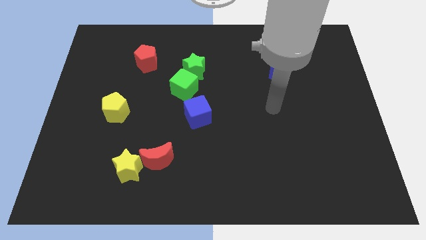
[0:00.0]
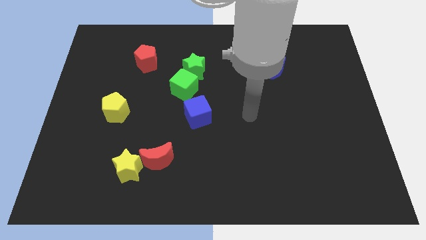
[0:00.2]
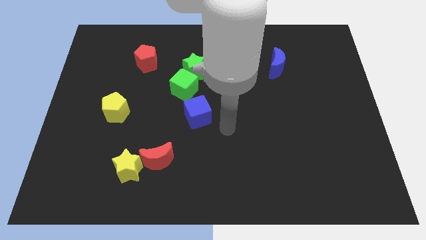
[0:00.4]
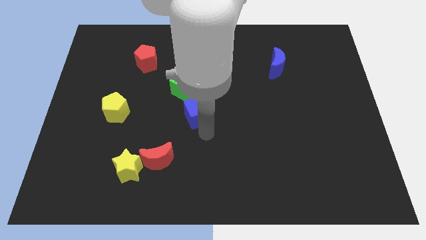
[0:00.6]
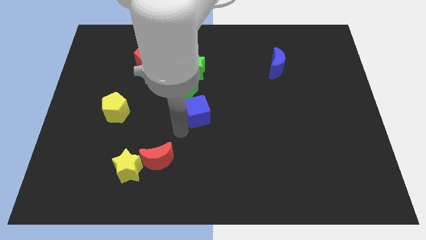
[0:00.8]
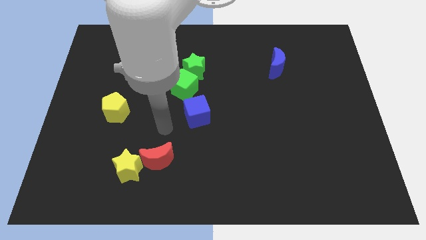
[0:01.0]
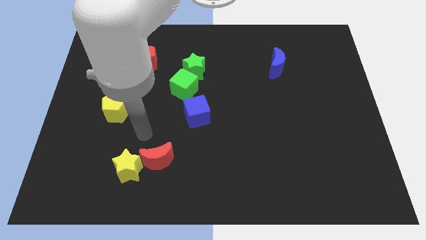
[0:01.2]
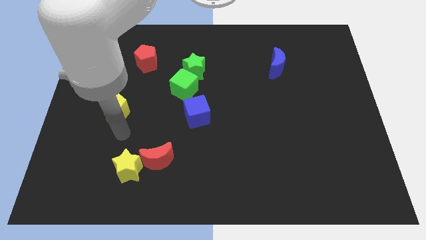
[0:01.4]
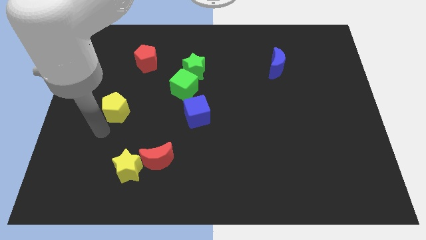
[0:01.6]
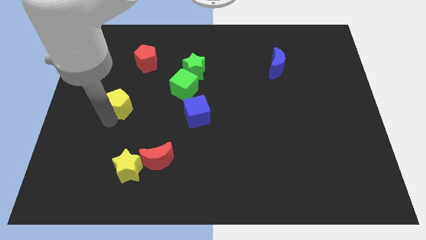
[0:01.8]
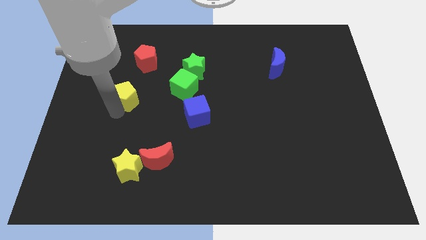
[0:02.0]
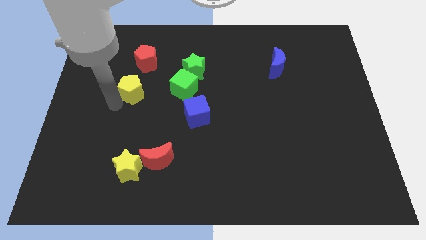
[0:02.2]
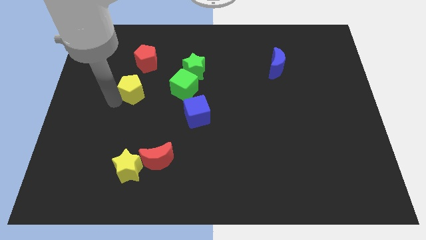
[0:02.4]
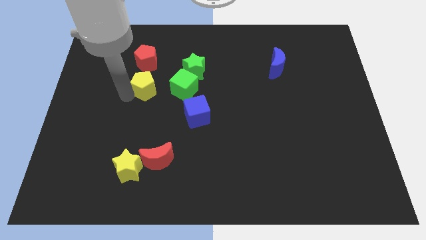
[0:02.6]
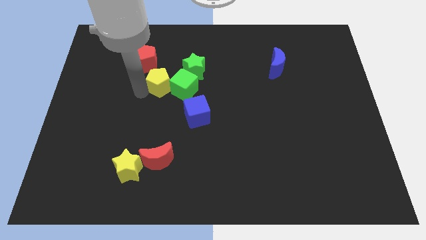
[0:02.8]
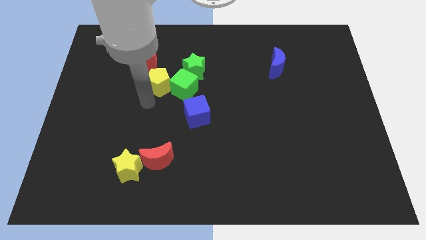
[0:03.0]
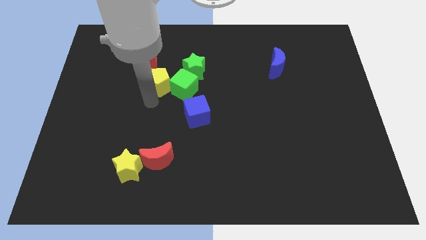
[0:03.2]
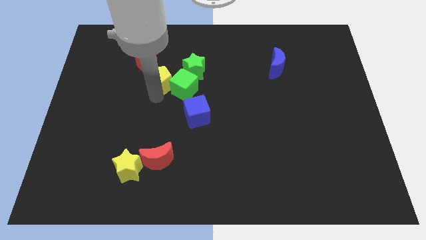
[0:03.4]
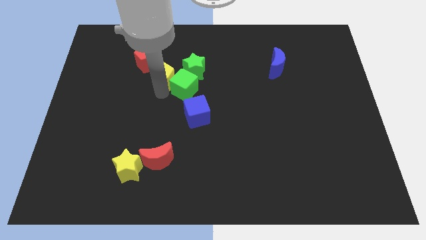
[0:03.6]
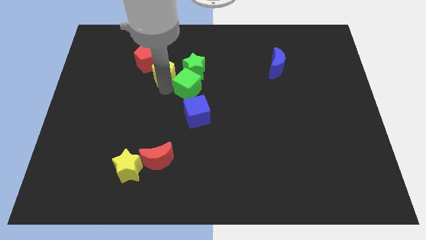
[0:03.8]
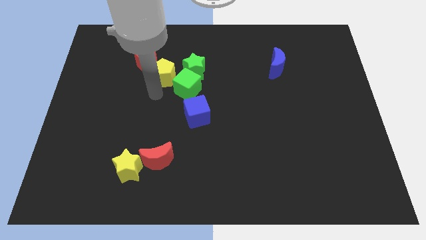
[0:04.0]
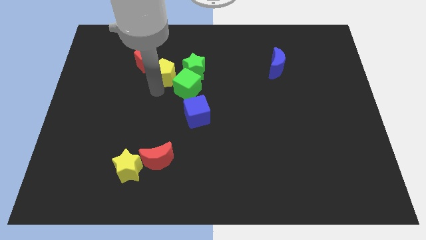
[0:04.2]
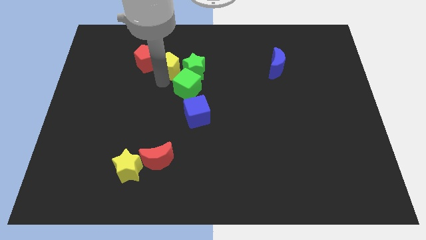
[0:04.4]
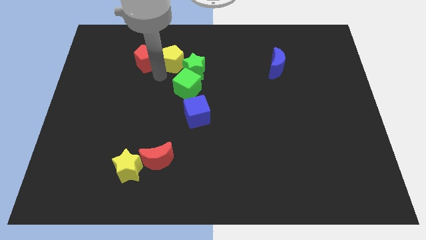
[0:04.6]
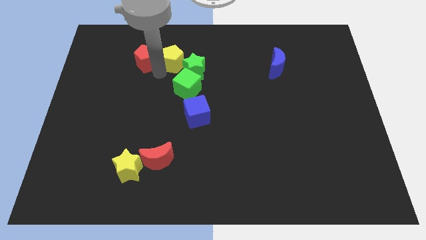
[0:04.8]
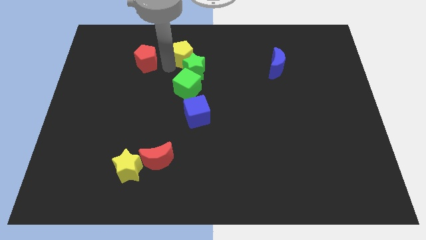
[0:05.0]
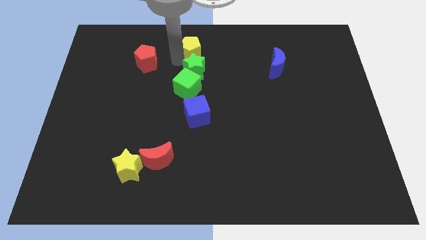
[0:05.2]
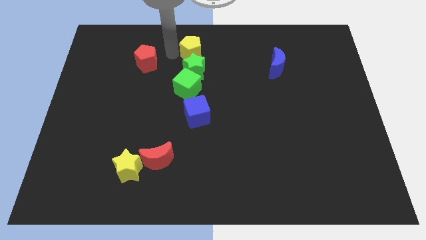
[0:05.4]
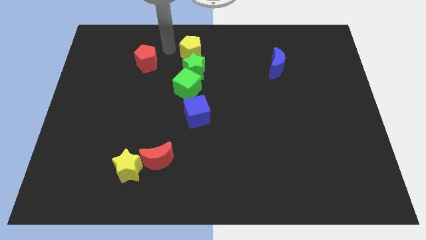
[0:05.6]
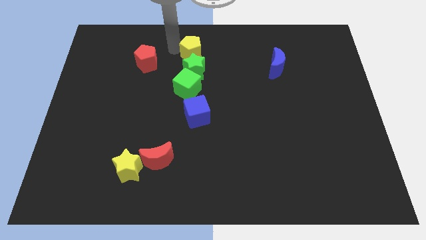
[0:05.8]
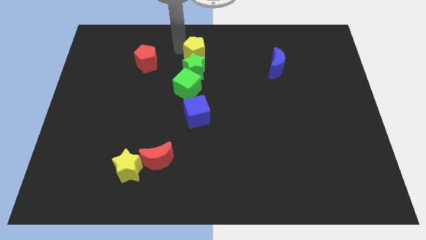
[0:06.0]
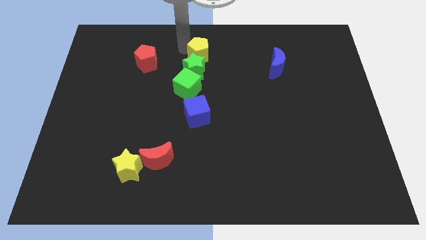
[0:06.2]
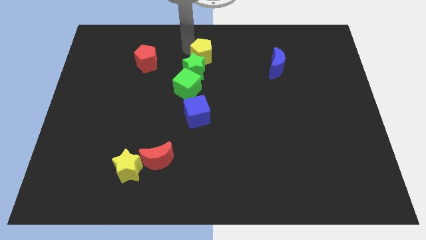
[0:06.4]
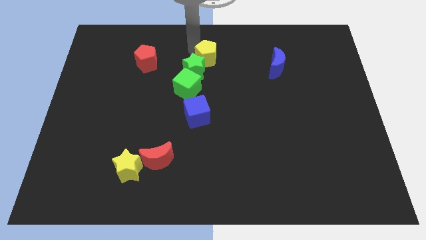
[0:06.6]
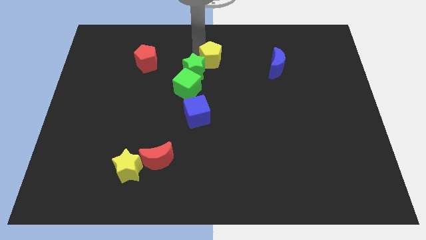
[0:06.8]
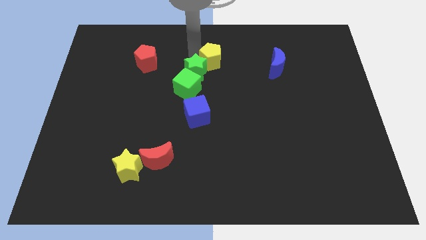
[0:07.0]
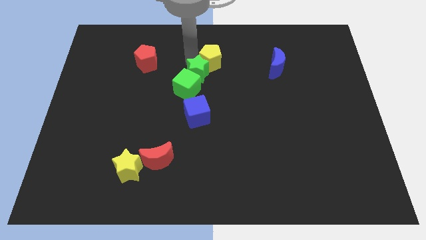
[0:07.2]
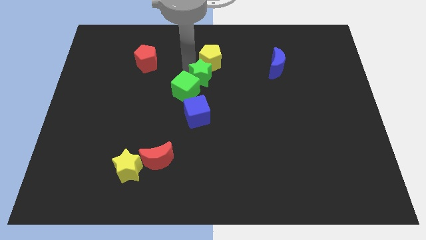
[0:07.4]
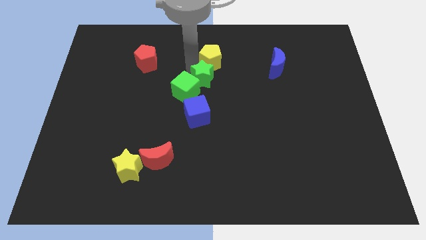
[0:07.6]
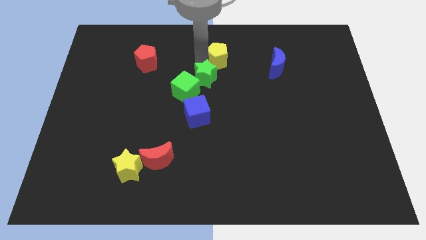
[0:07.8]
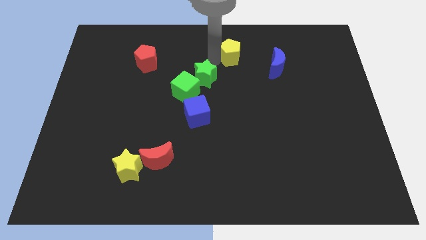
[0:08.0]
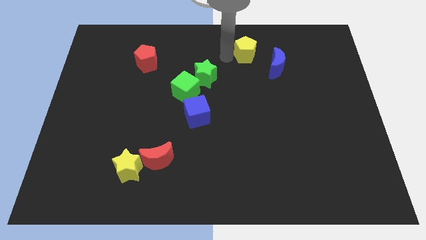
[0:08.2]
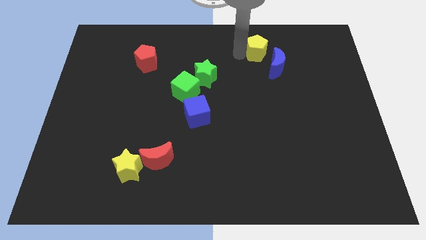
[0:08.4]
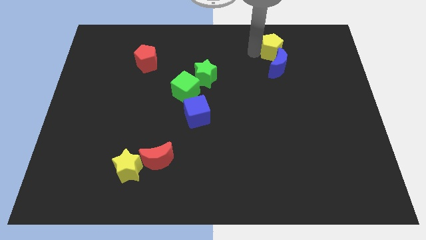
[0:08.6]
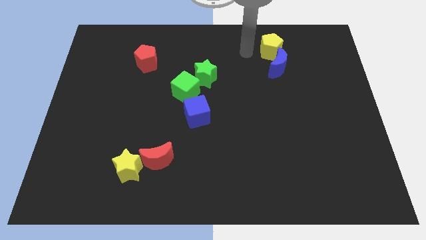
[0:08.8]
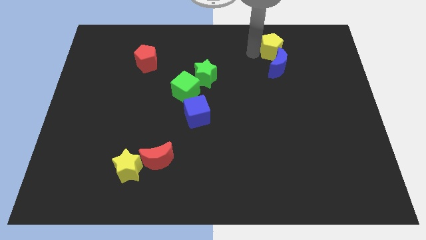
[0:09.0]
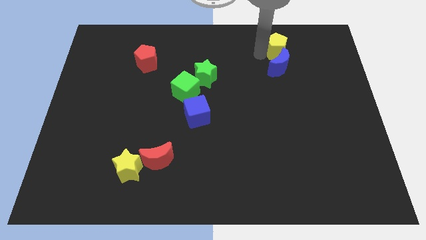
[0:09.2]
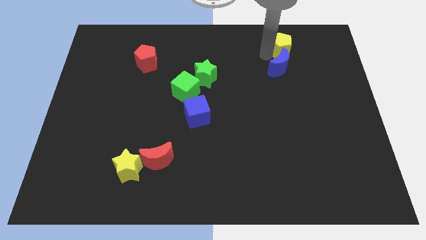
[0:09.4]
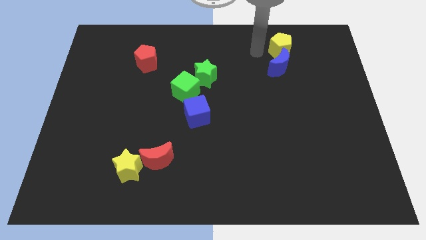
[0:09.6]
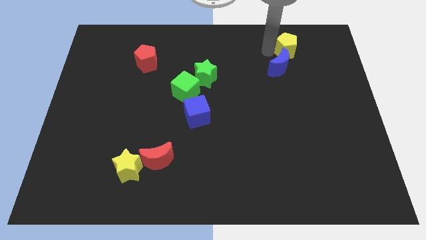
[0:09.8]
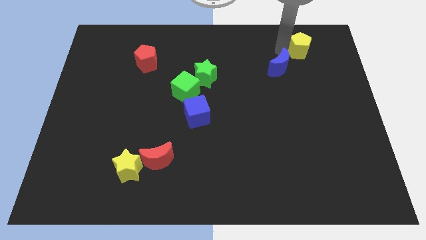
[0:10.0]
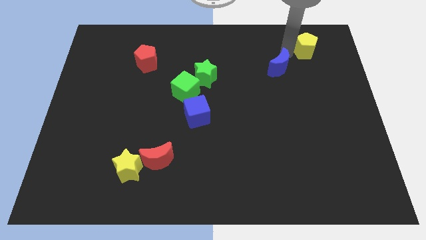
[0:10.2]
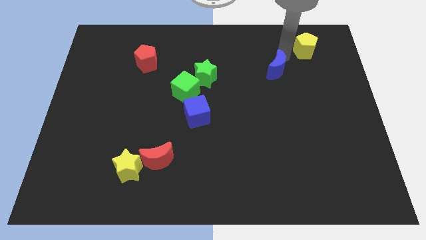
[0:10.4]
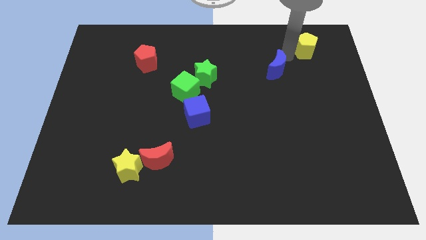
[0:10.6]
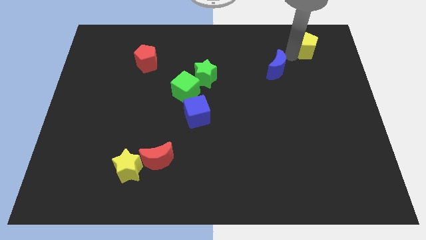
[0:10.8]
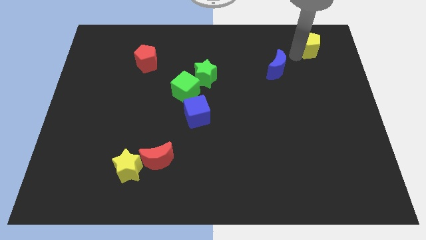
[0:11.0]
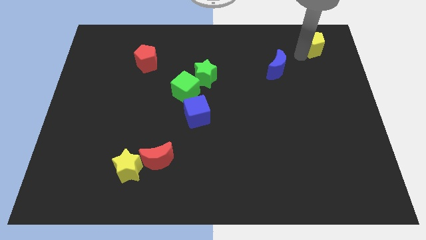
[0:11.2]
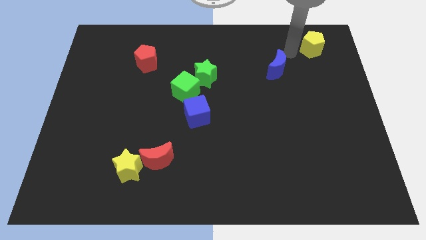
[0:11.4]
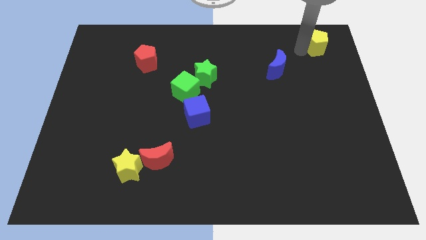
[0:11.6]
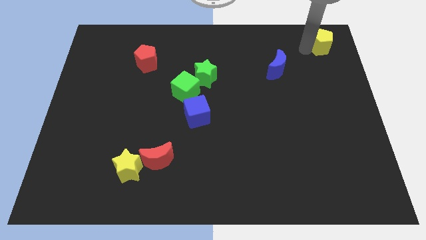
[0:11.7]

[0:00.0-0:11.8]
put the yellow pentagon to the top right of the board

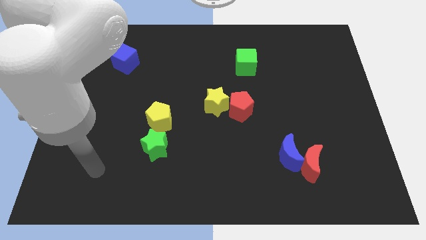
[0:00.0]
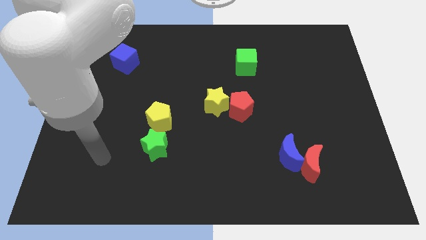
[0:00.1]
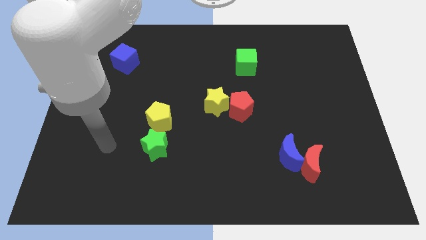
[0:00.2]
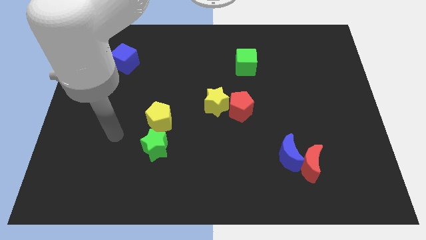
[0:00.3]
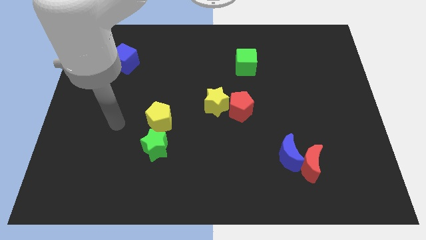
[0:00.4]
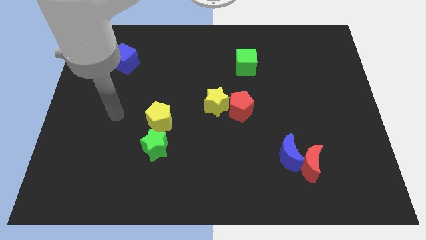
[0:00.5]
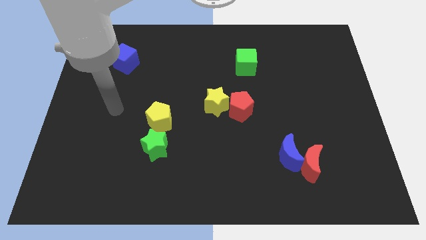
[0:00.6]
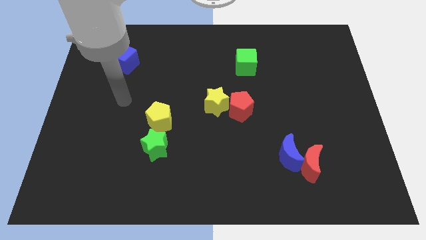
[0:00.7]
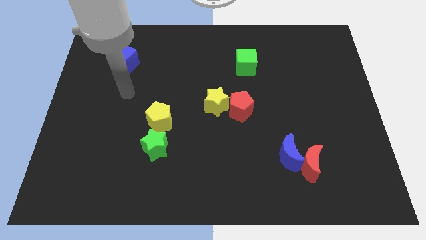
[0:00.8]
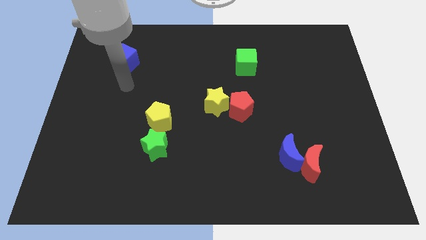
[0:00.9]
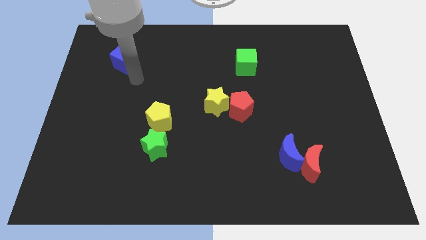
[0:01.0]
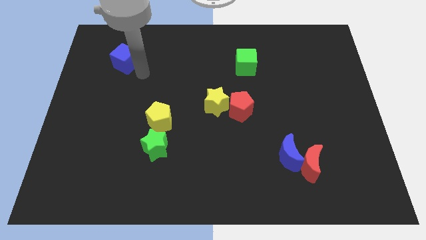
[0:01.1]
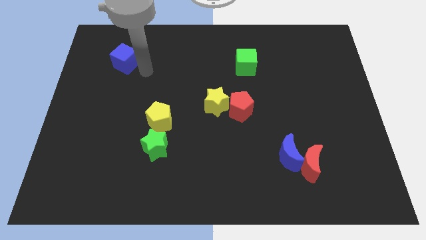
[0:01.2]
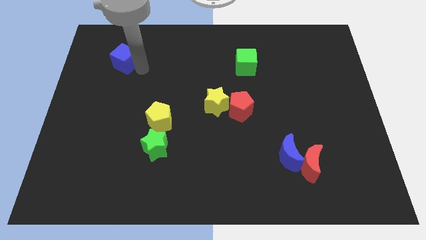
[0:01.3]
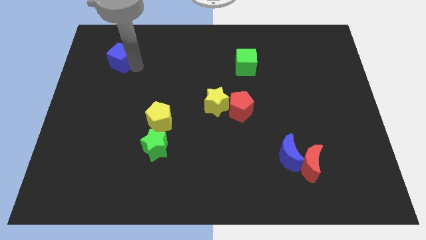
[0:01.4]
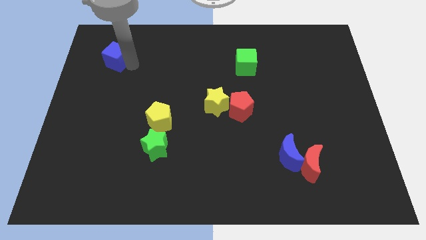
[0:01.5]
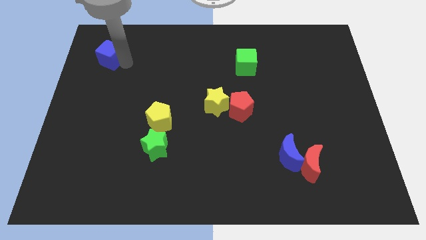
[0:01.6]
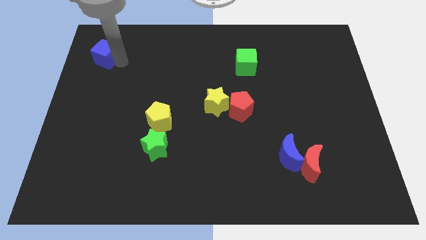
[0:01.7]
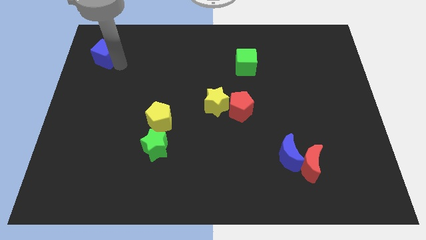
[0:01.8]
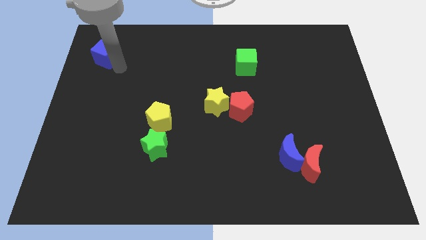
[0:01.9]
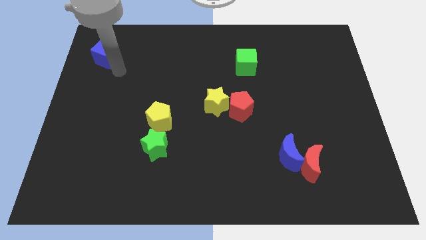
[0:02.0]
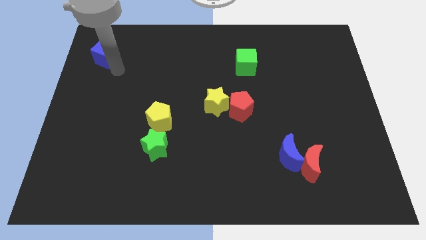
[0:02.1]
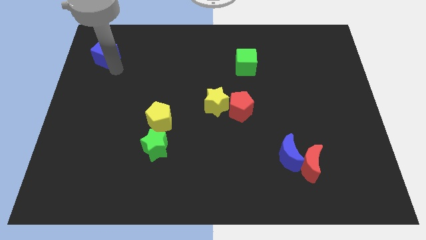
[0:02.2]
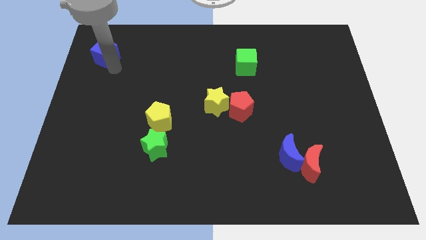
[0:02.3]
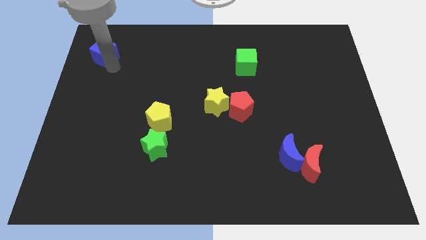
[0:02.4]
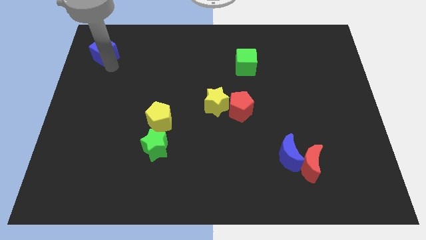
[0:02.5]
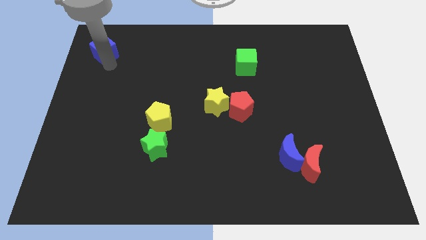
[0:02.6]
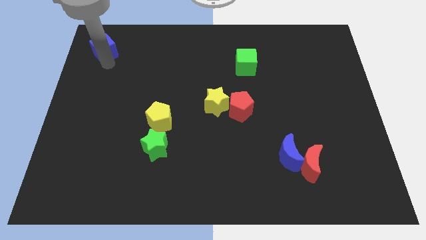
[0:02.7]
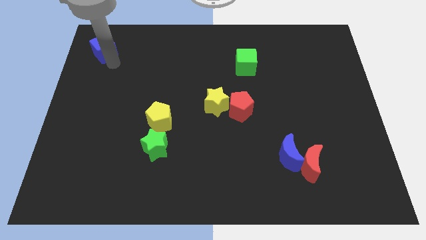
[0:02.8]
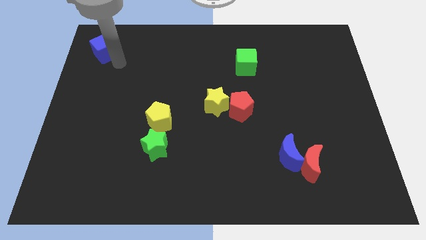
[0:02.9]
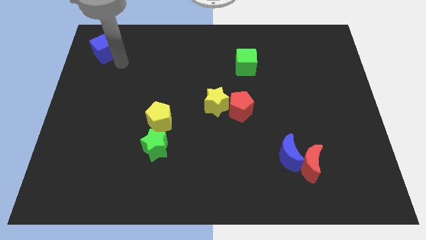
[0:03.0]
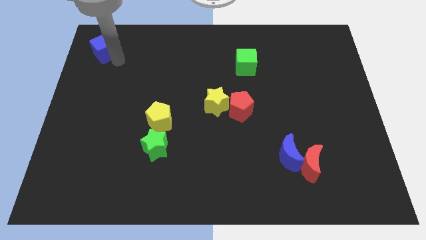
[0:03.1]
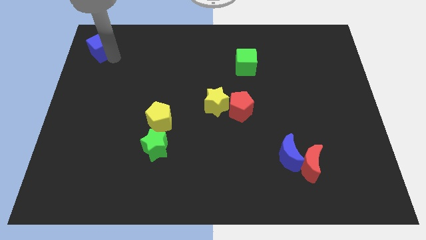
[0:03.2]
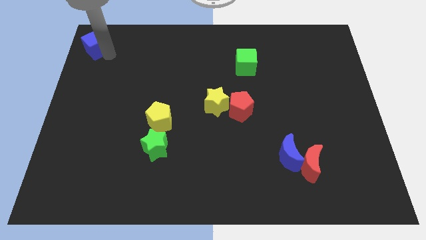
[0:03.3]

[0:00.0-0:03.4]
slide the blue cube to the top left
